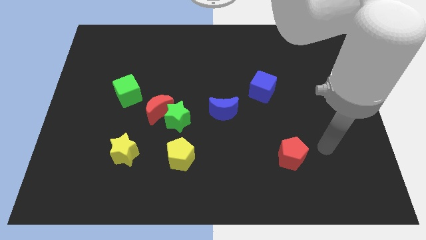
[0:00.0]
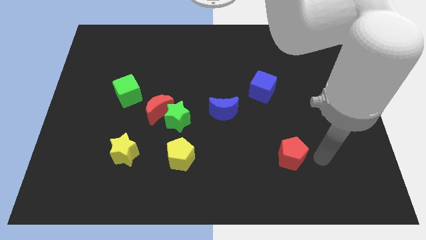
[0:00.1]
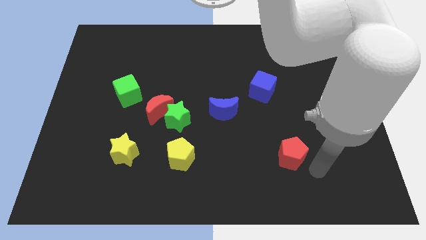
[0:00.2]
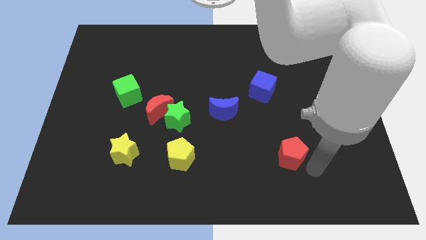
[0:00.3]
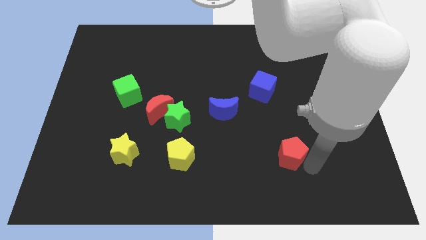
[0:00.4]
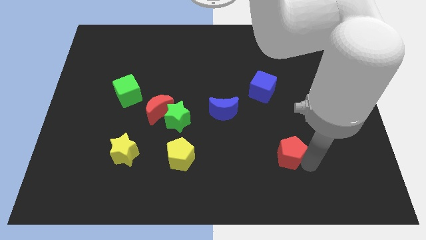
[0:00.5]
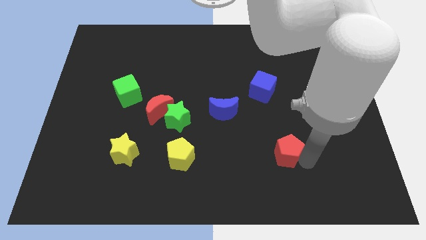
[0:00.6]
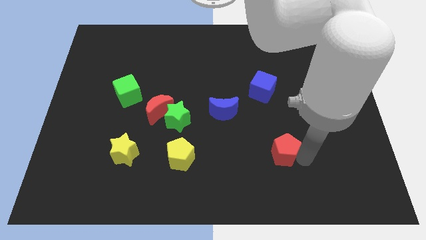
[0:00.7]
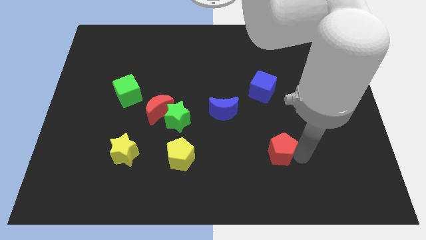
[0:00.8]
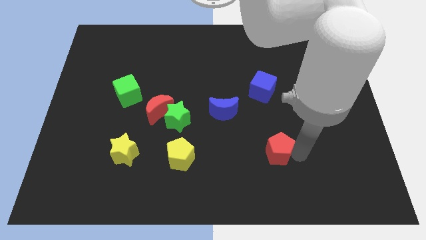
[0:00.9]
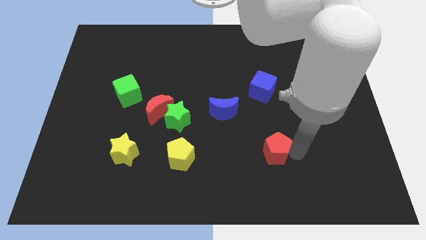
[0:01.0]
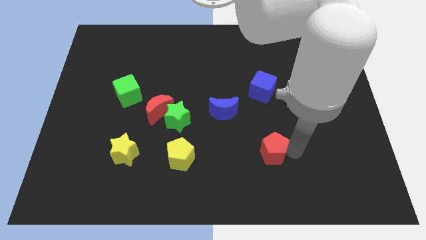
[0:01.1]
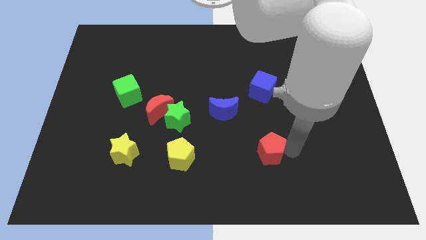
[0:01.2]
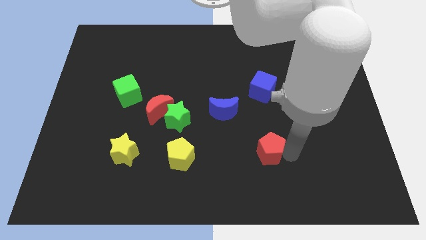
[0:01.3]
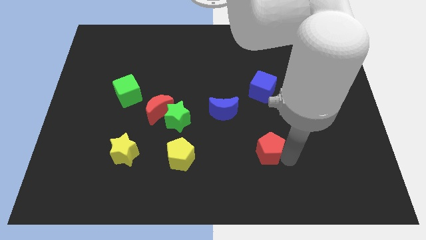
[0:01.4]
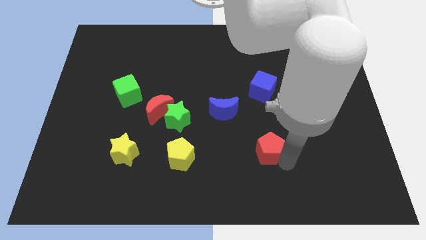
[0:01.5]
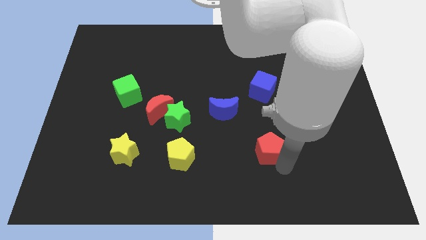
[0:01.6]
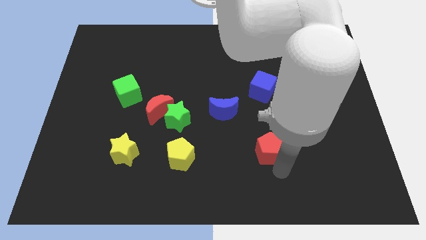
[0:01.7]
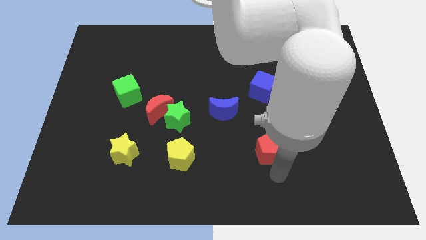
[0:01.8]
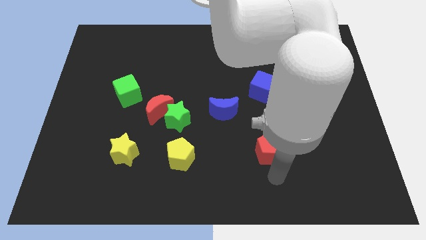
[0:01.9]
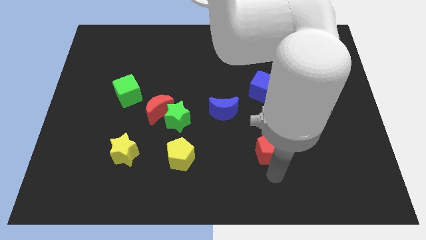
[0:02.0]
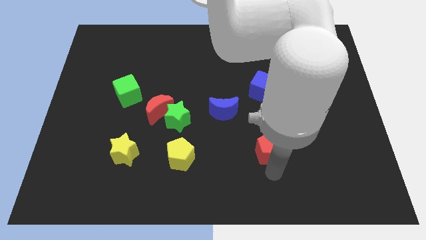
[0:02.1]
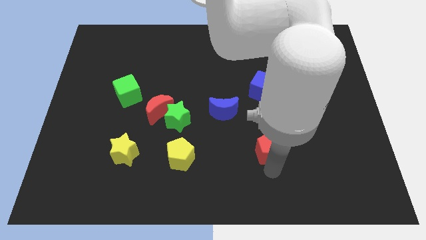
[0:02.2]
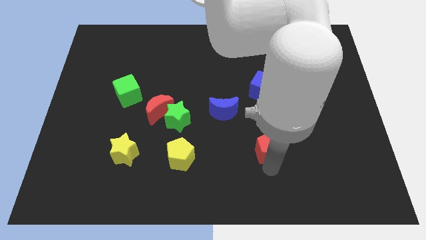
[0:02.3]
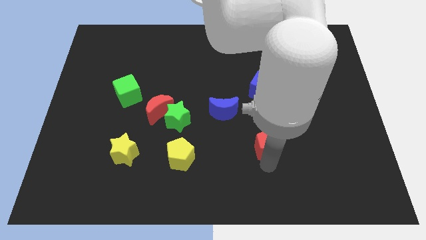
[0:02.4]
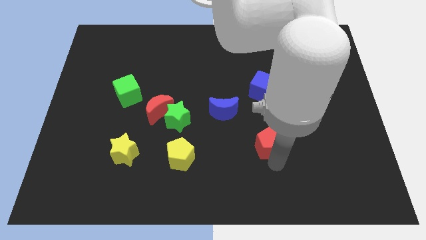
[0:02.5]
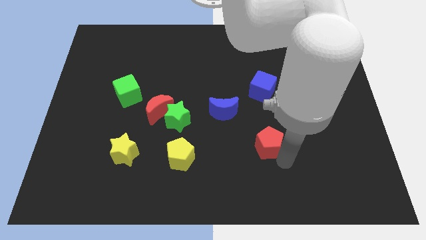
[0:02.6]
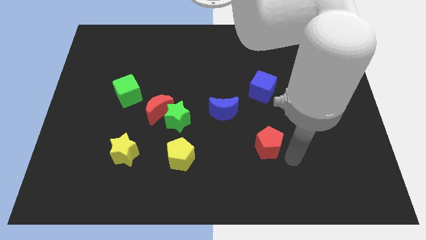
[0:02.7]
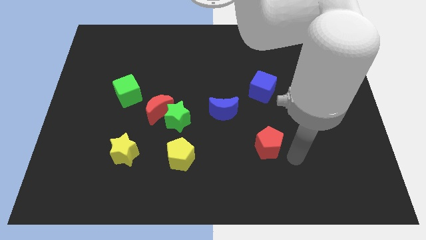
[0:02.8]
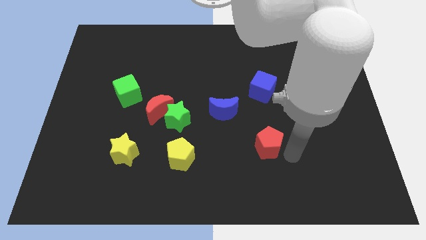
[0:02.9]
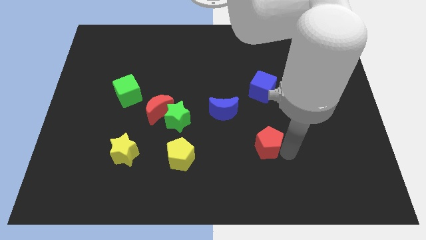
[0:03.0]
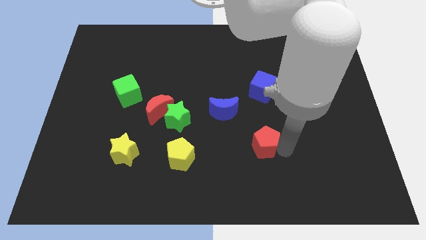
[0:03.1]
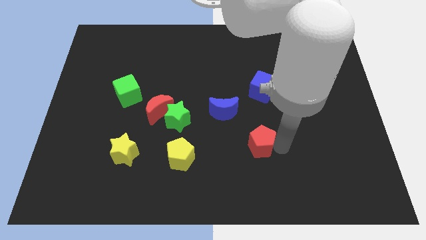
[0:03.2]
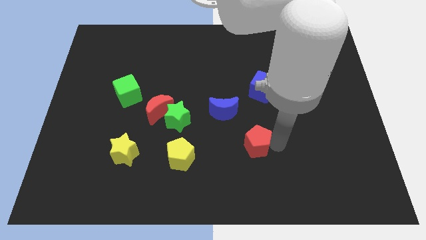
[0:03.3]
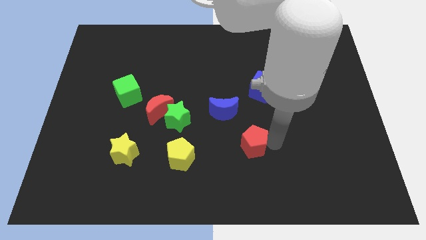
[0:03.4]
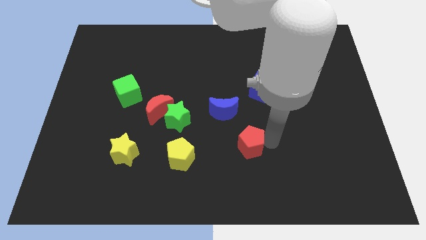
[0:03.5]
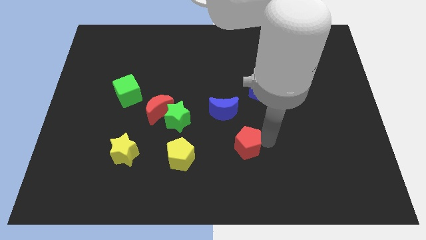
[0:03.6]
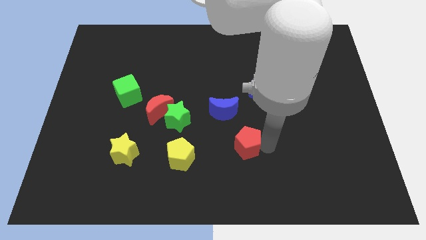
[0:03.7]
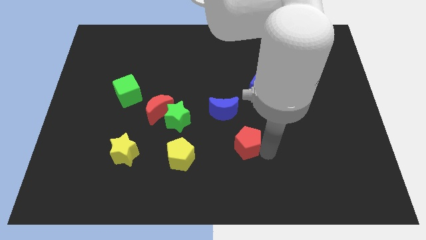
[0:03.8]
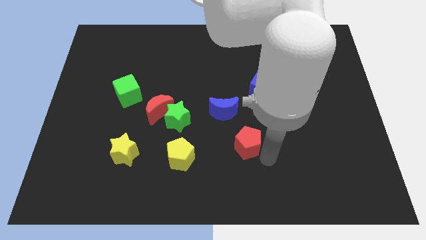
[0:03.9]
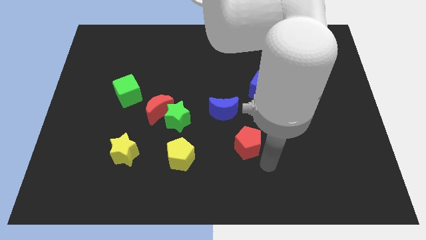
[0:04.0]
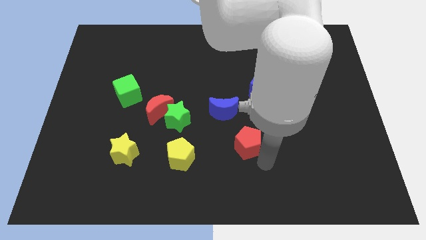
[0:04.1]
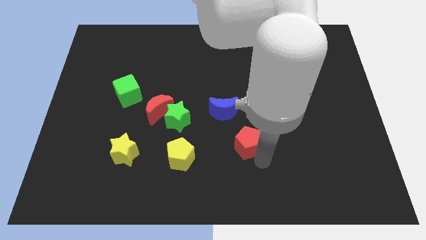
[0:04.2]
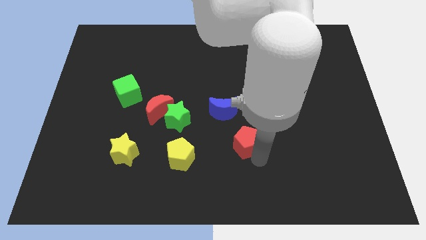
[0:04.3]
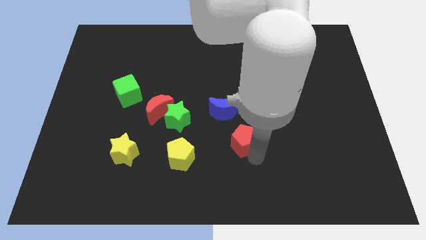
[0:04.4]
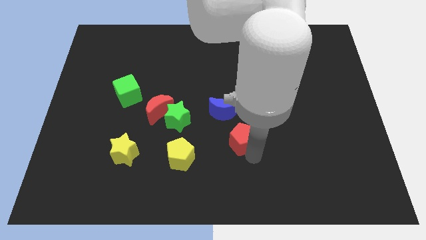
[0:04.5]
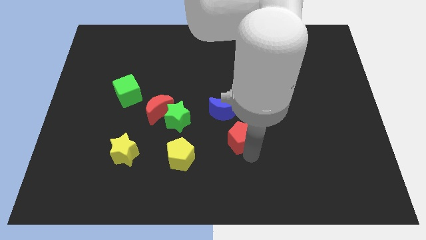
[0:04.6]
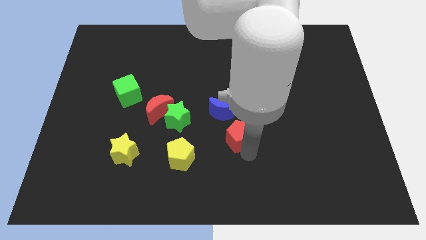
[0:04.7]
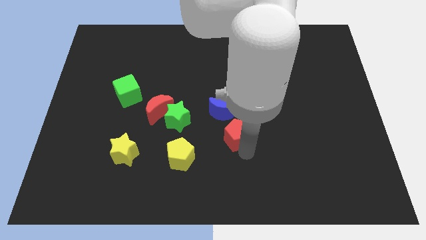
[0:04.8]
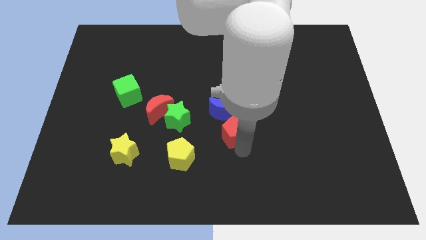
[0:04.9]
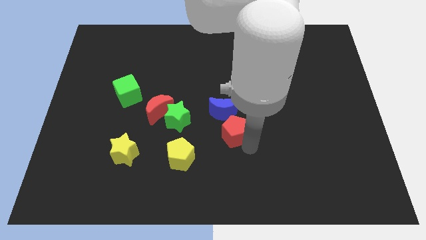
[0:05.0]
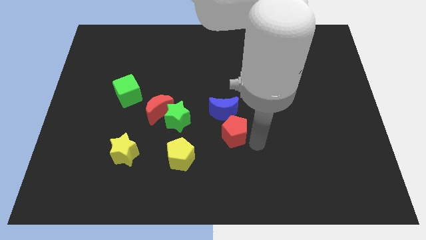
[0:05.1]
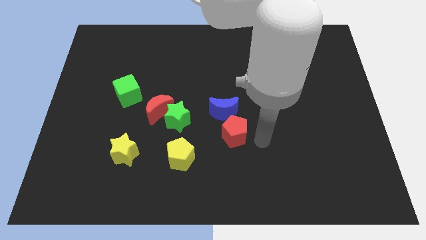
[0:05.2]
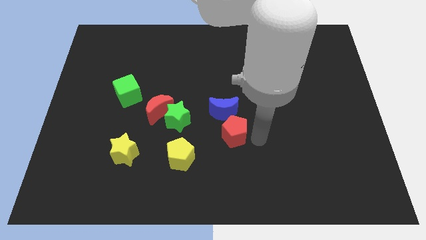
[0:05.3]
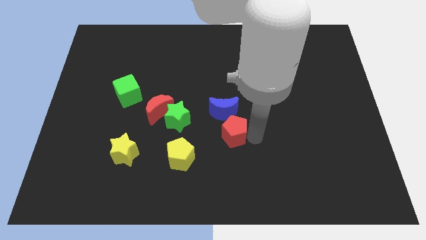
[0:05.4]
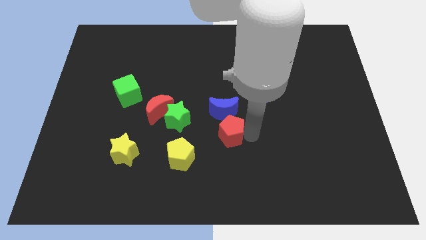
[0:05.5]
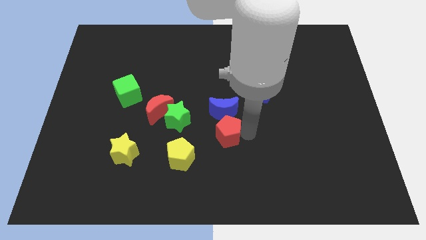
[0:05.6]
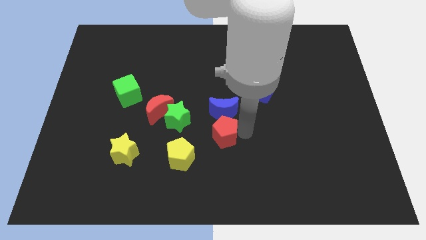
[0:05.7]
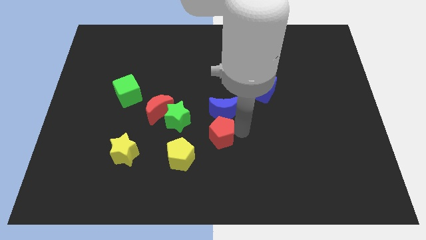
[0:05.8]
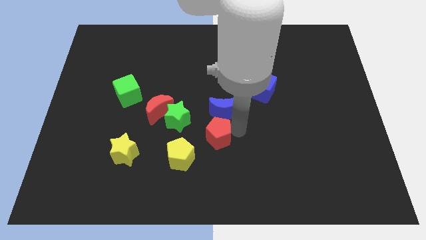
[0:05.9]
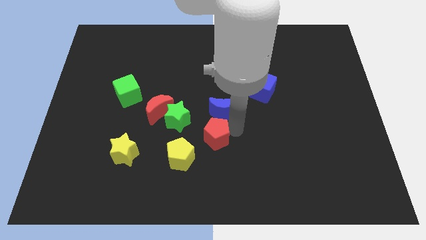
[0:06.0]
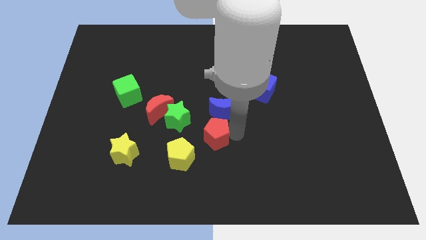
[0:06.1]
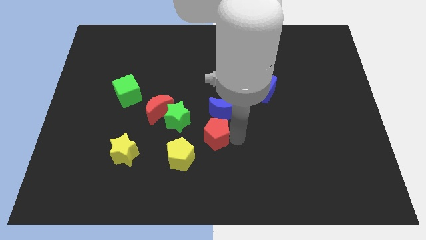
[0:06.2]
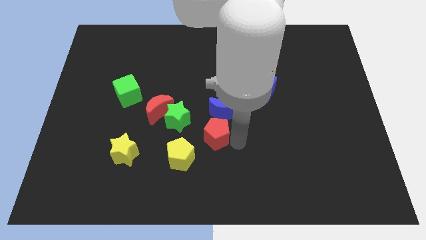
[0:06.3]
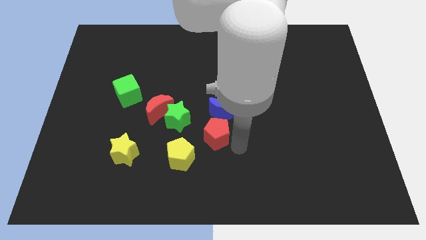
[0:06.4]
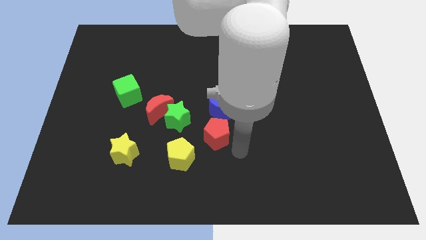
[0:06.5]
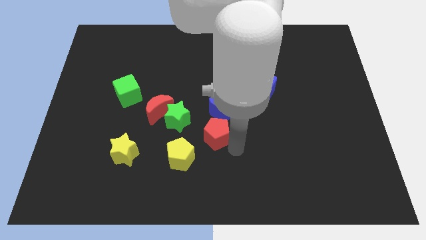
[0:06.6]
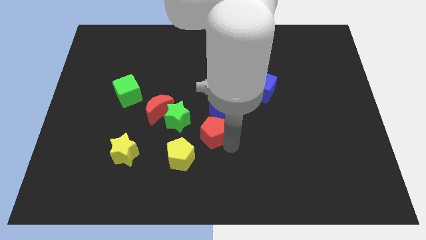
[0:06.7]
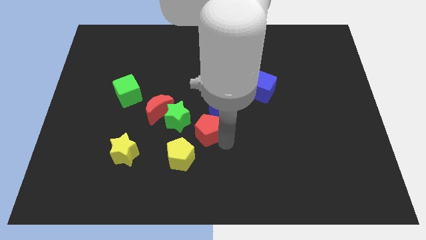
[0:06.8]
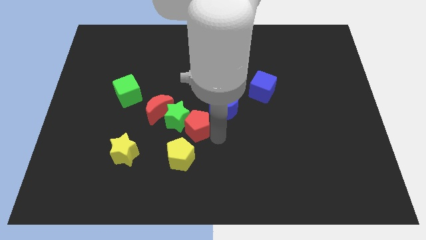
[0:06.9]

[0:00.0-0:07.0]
push the red pentagon close to the green star
